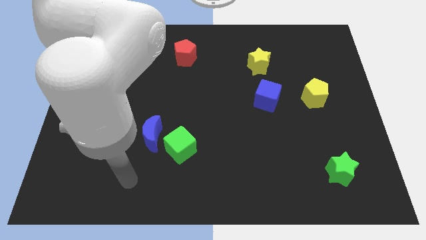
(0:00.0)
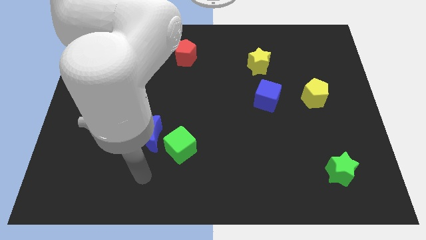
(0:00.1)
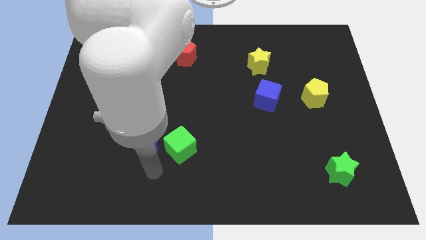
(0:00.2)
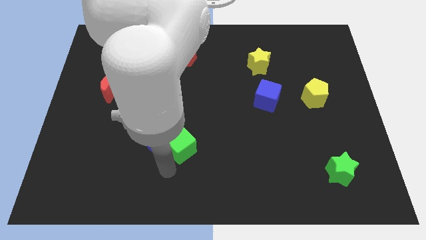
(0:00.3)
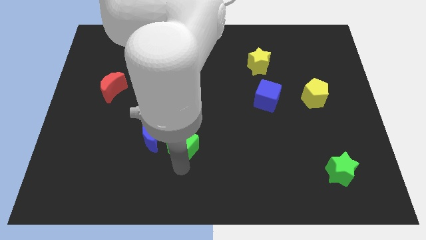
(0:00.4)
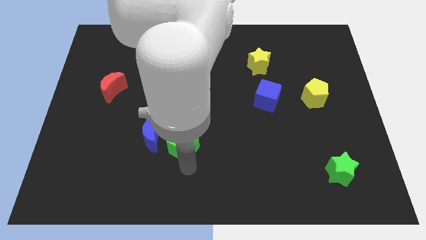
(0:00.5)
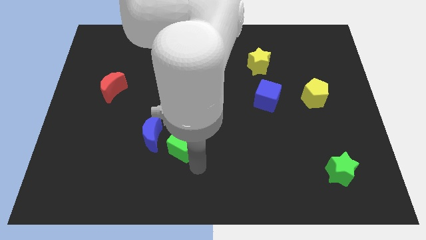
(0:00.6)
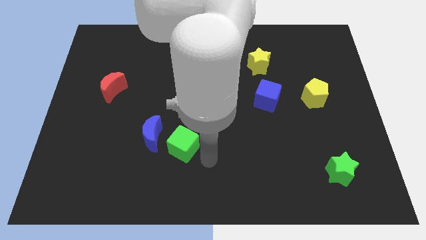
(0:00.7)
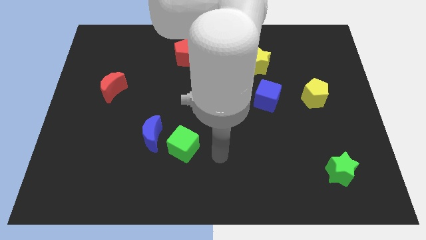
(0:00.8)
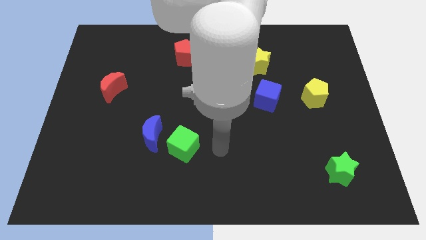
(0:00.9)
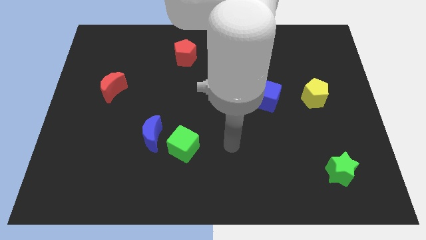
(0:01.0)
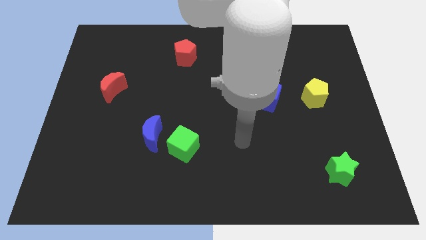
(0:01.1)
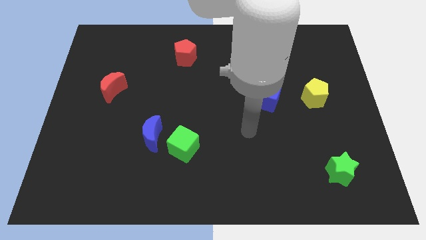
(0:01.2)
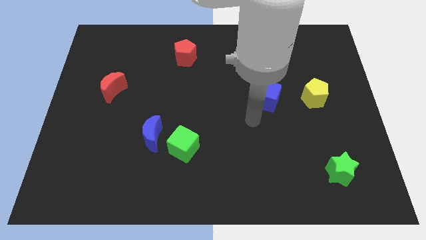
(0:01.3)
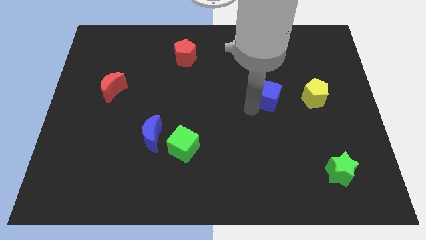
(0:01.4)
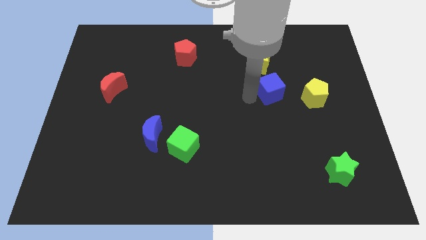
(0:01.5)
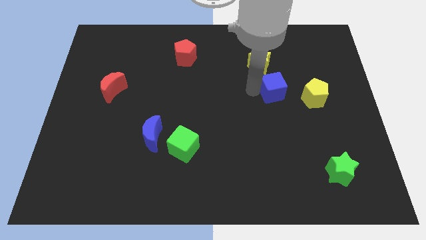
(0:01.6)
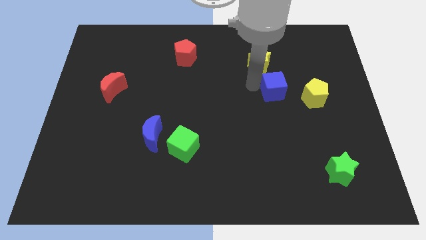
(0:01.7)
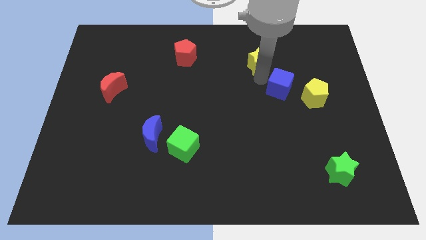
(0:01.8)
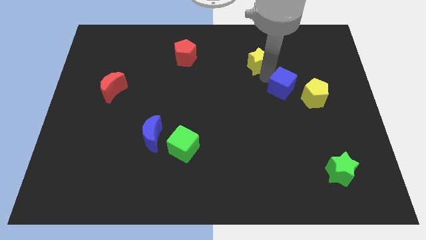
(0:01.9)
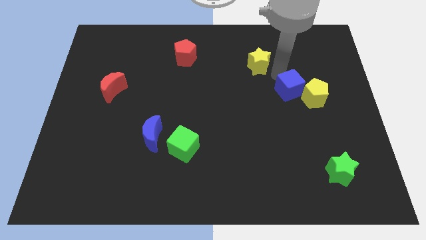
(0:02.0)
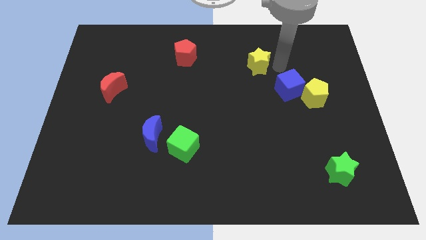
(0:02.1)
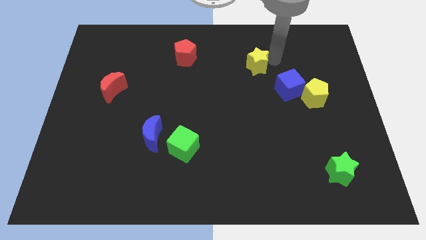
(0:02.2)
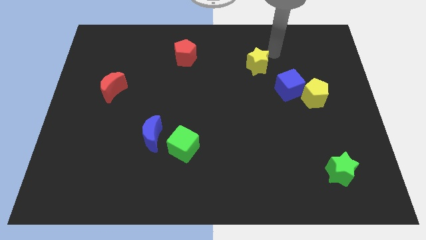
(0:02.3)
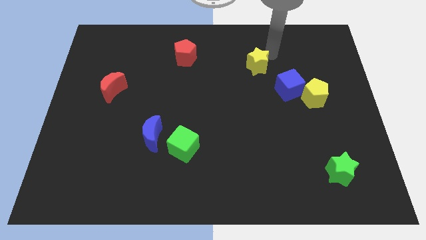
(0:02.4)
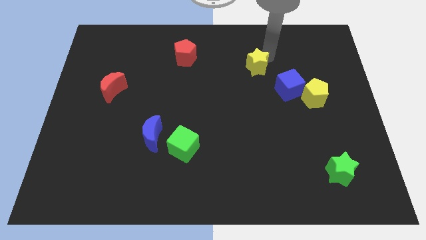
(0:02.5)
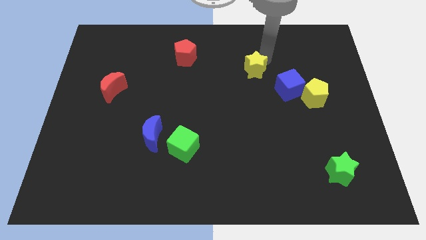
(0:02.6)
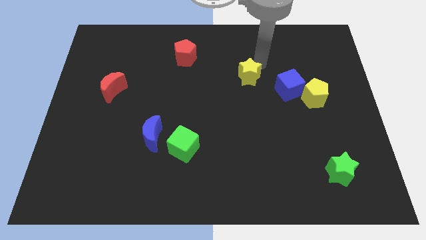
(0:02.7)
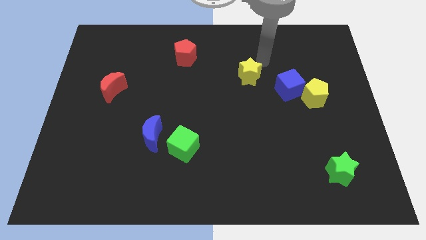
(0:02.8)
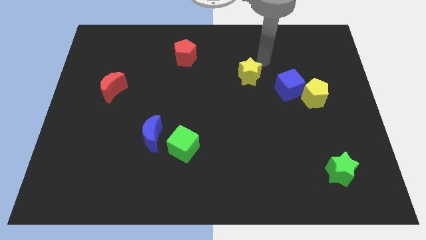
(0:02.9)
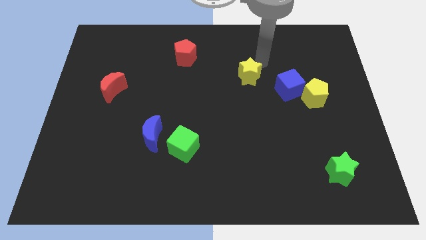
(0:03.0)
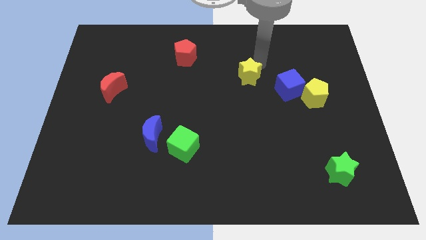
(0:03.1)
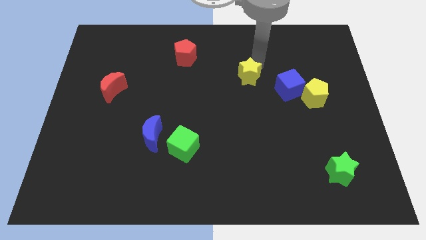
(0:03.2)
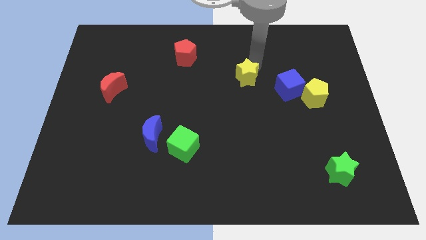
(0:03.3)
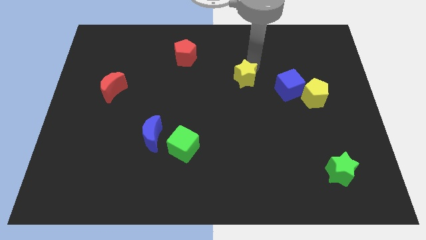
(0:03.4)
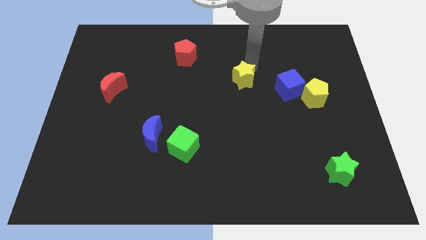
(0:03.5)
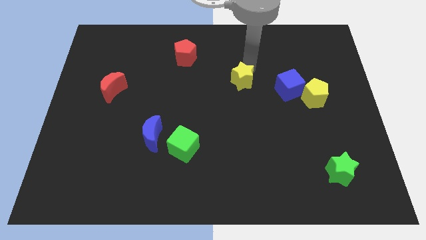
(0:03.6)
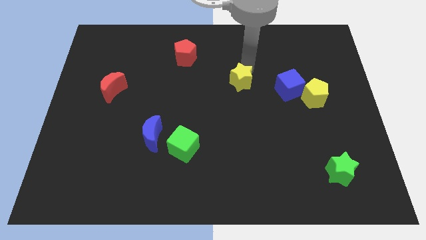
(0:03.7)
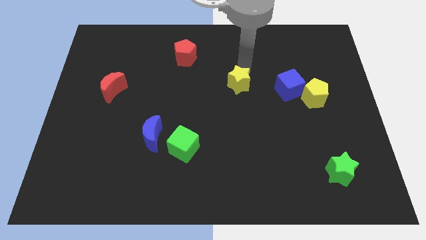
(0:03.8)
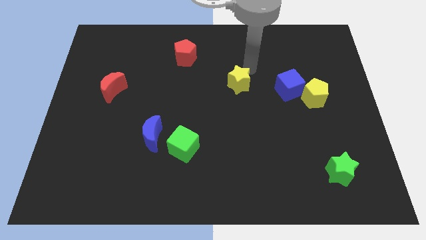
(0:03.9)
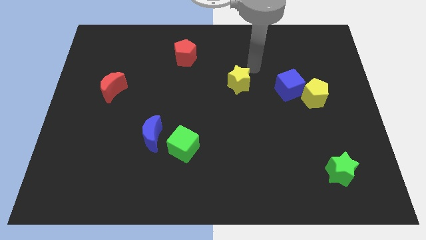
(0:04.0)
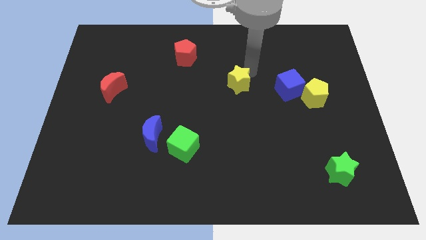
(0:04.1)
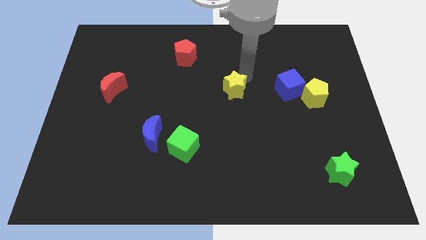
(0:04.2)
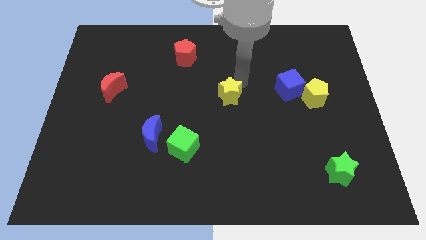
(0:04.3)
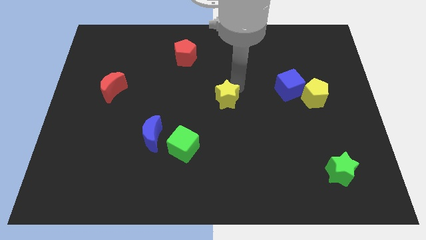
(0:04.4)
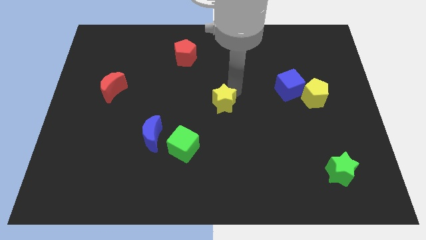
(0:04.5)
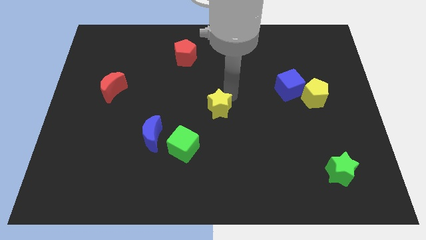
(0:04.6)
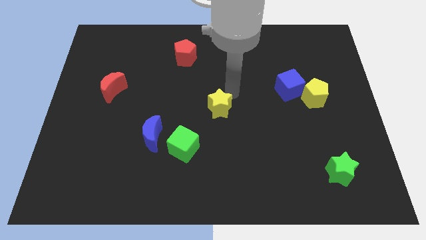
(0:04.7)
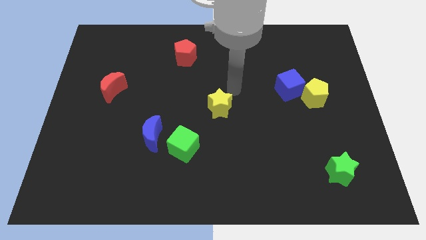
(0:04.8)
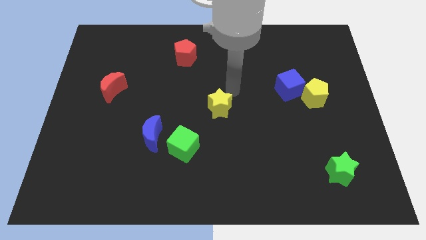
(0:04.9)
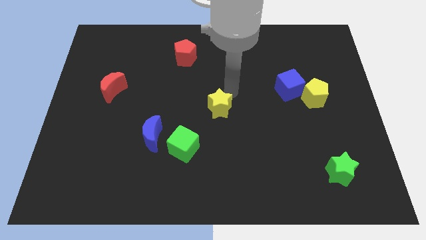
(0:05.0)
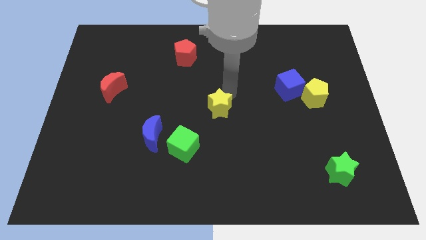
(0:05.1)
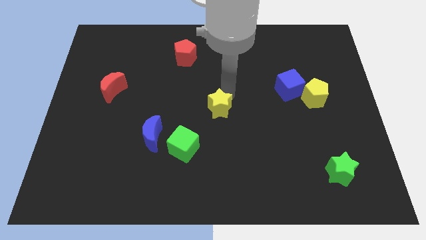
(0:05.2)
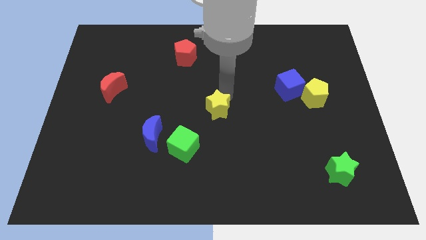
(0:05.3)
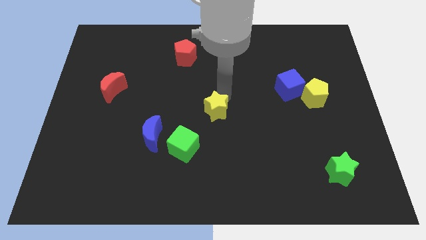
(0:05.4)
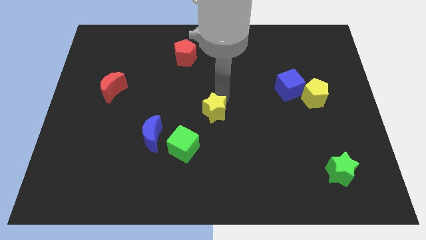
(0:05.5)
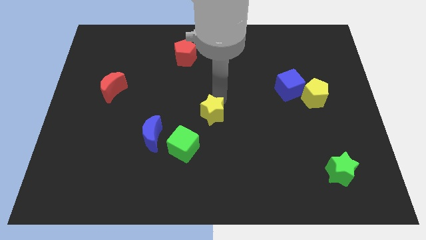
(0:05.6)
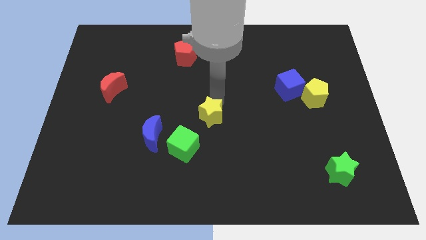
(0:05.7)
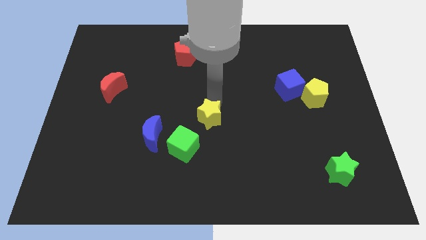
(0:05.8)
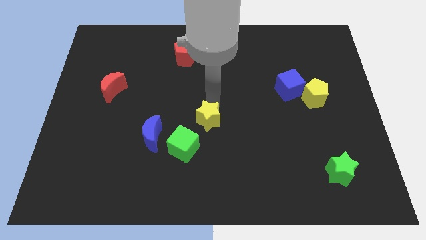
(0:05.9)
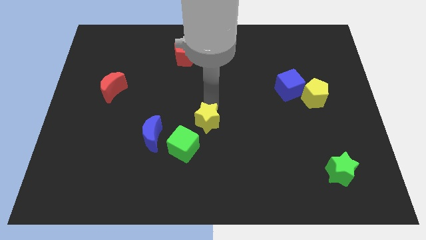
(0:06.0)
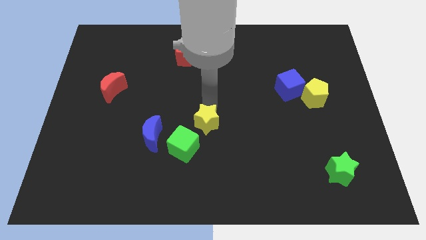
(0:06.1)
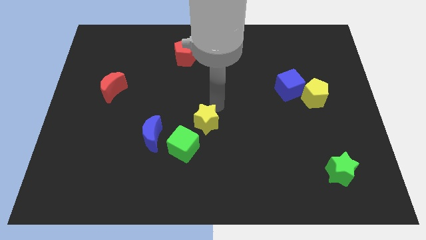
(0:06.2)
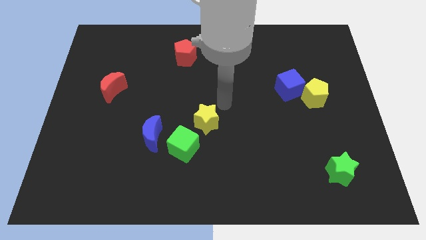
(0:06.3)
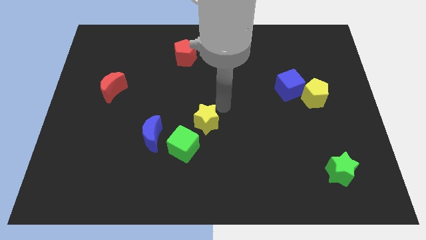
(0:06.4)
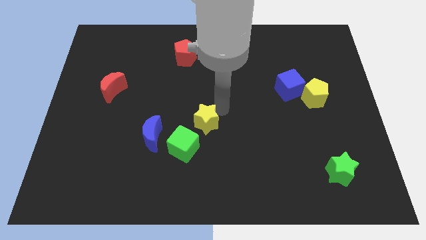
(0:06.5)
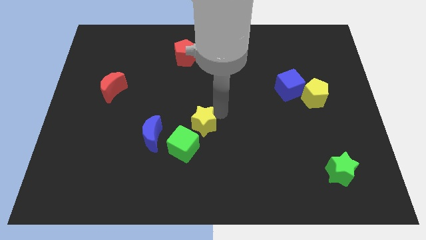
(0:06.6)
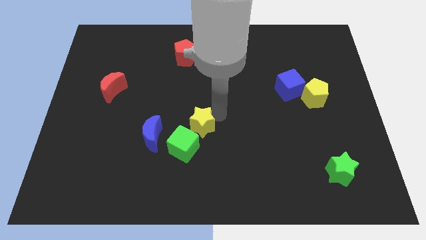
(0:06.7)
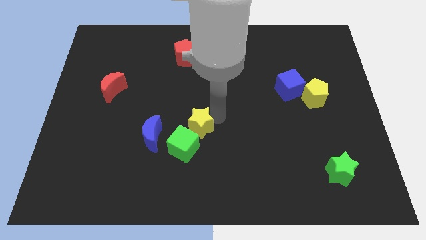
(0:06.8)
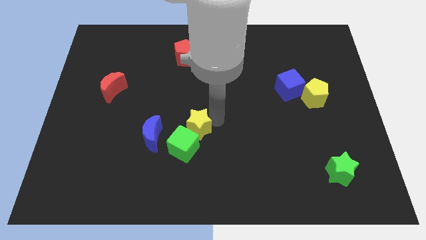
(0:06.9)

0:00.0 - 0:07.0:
put the yellow star towards the green cube

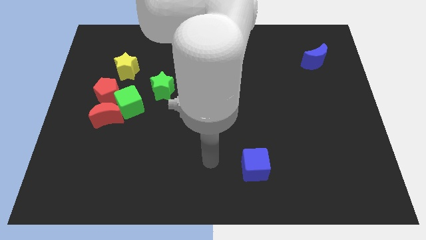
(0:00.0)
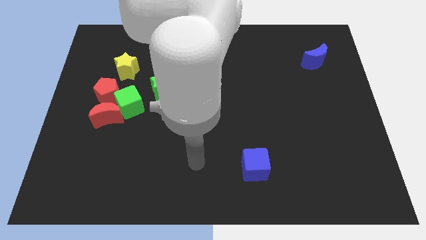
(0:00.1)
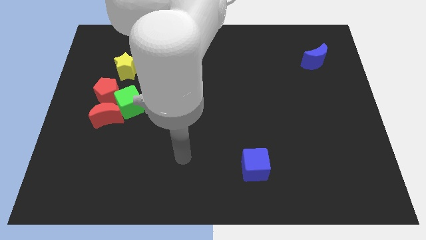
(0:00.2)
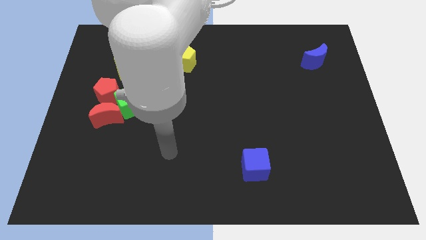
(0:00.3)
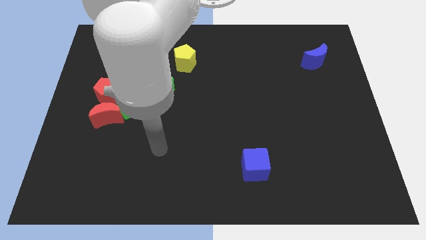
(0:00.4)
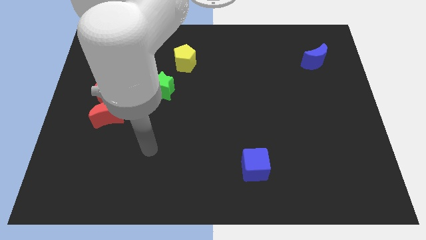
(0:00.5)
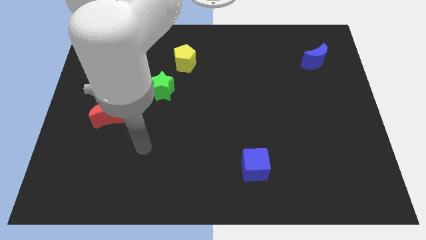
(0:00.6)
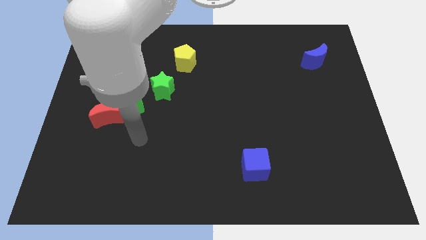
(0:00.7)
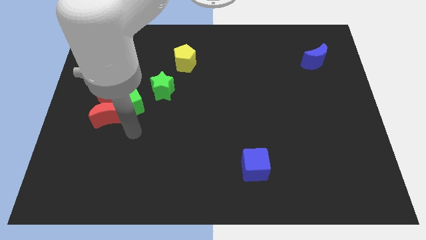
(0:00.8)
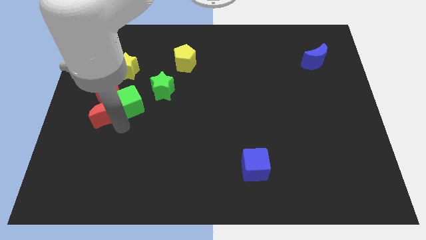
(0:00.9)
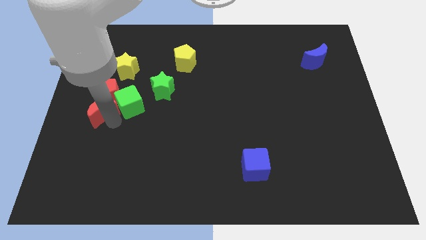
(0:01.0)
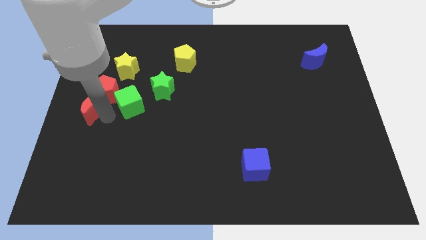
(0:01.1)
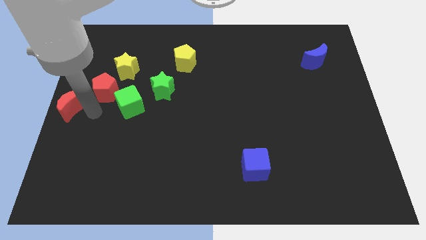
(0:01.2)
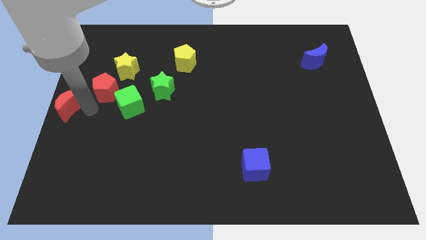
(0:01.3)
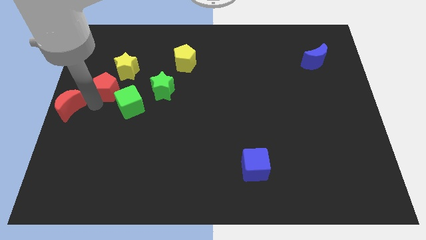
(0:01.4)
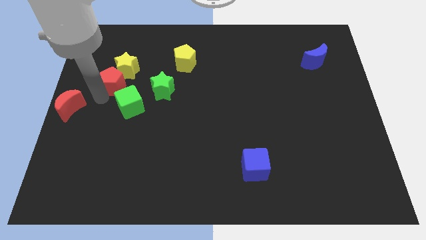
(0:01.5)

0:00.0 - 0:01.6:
put the red pentagon close to the yellow star
